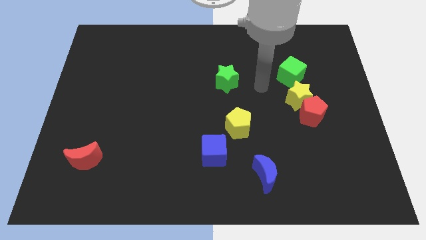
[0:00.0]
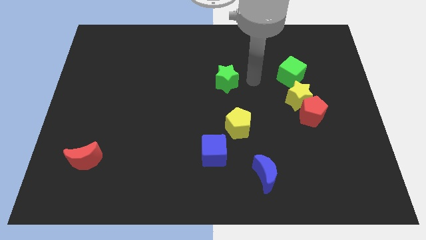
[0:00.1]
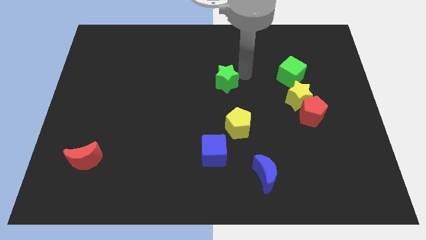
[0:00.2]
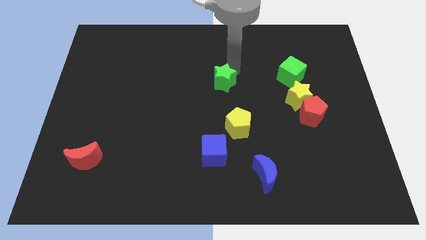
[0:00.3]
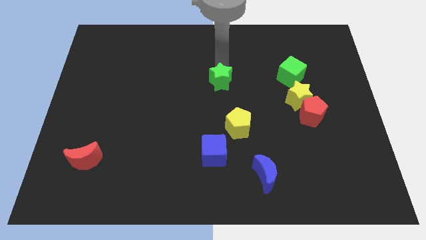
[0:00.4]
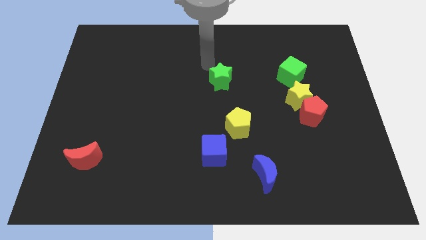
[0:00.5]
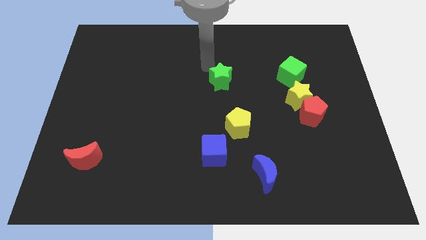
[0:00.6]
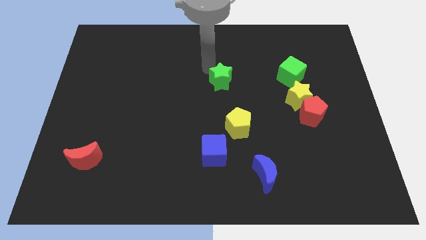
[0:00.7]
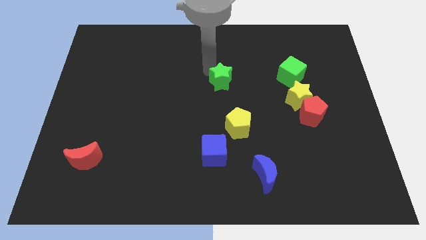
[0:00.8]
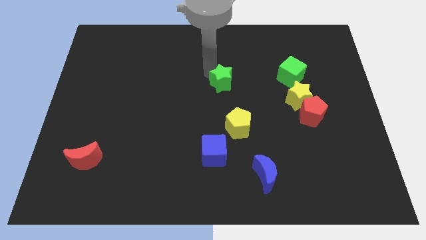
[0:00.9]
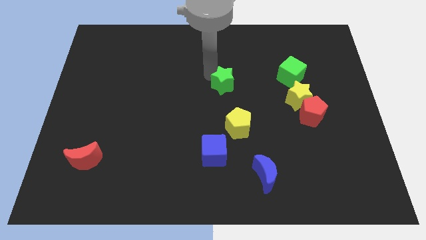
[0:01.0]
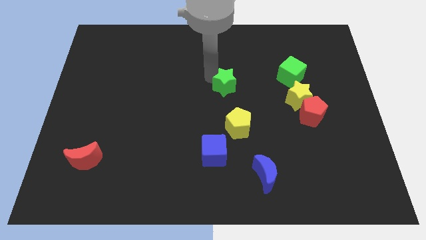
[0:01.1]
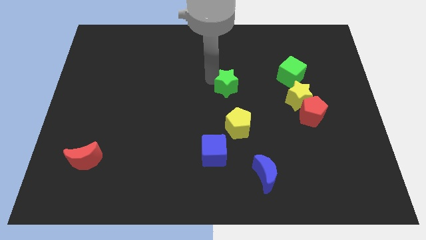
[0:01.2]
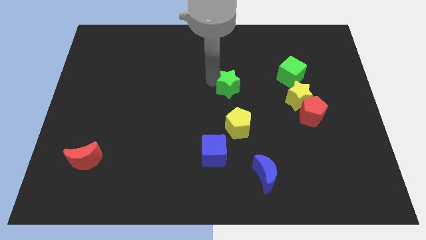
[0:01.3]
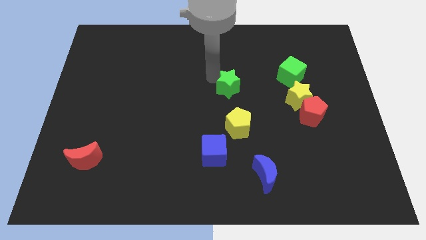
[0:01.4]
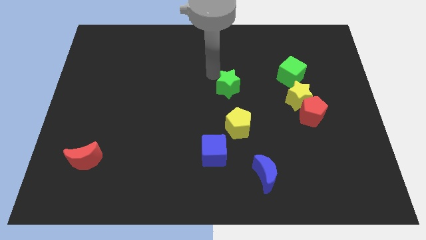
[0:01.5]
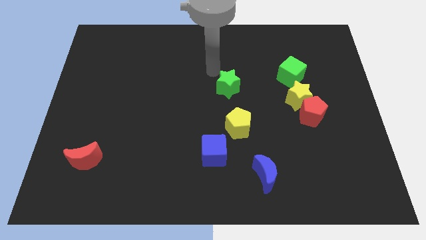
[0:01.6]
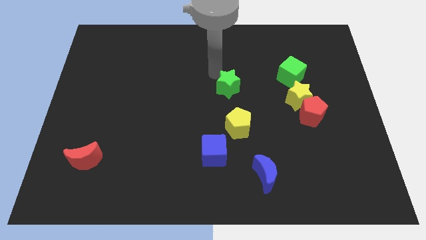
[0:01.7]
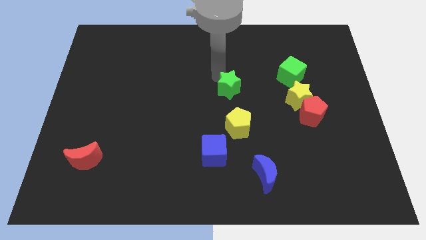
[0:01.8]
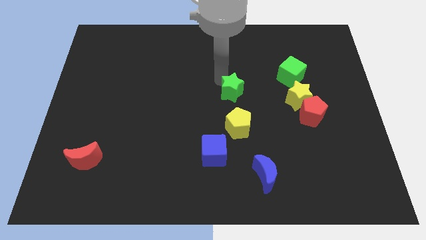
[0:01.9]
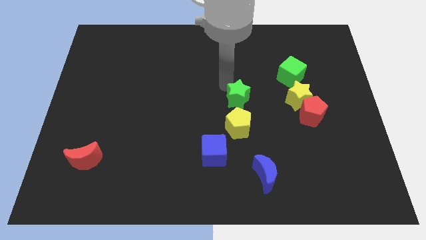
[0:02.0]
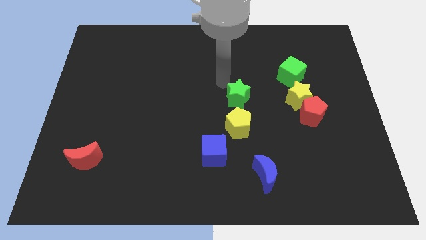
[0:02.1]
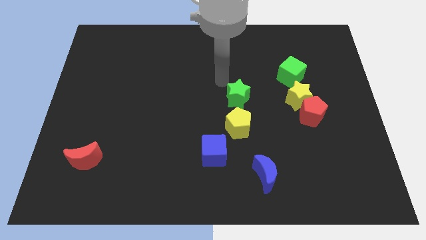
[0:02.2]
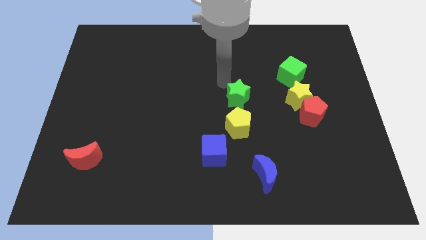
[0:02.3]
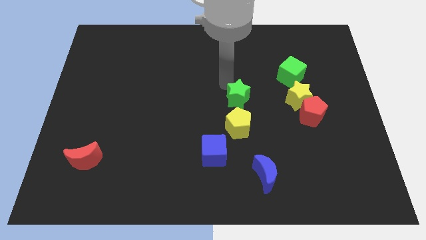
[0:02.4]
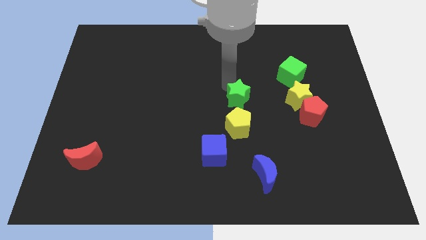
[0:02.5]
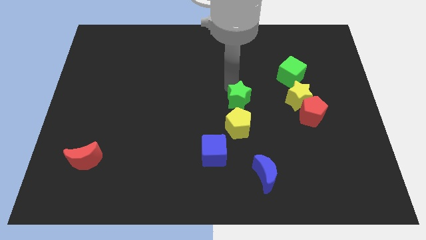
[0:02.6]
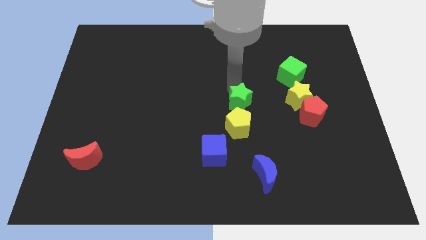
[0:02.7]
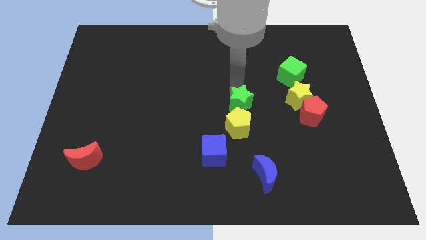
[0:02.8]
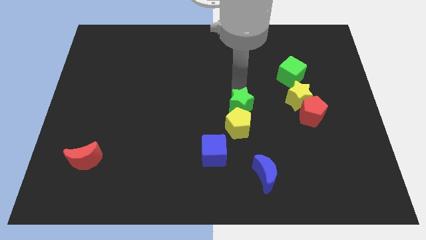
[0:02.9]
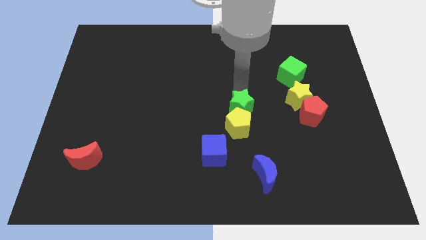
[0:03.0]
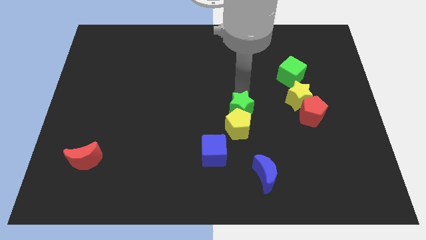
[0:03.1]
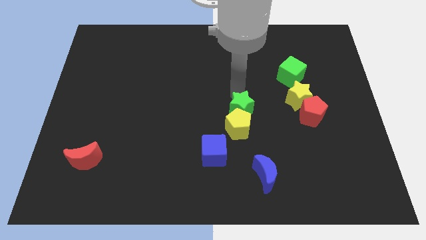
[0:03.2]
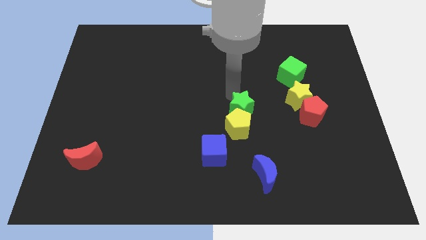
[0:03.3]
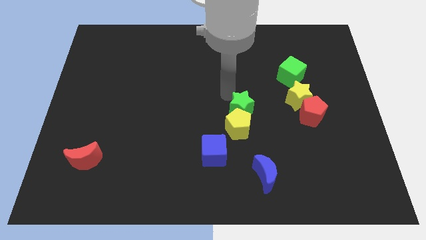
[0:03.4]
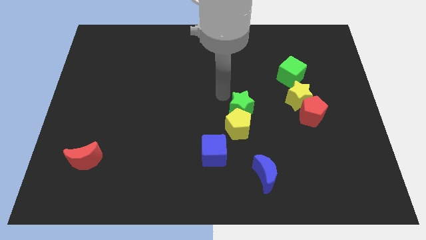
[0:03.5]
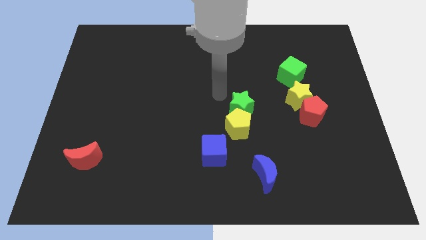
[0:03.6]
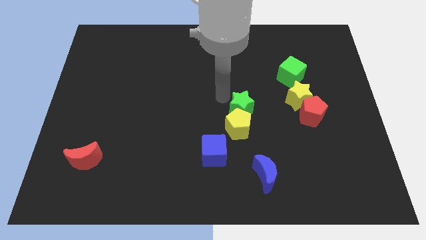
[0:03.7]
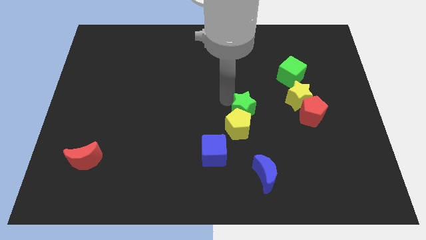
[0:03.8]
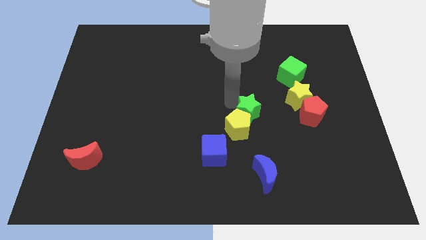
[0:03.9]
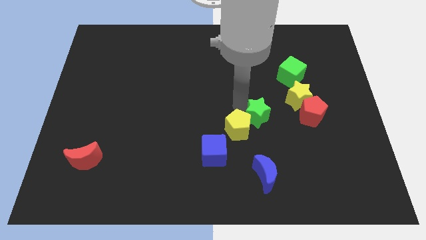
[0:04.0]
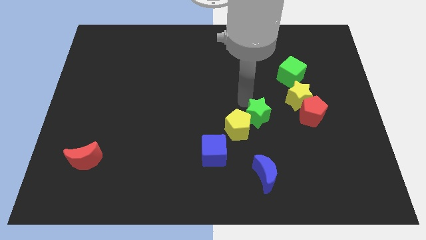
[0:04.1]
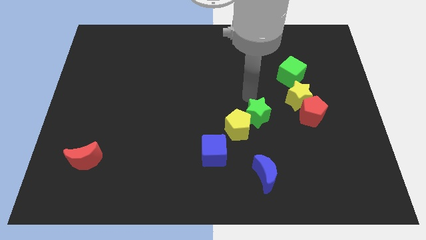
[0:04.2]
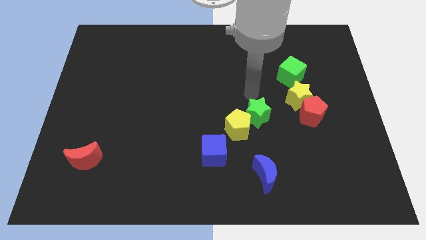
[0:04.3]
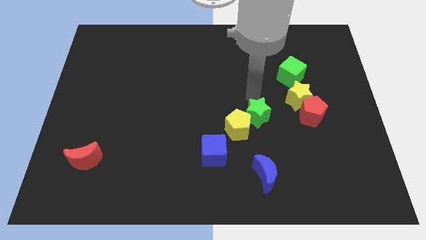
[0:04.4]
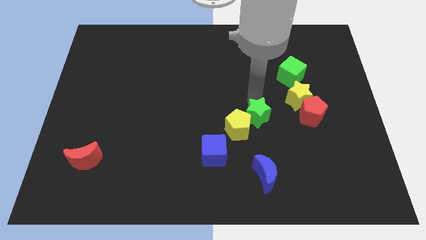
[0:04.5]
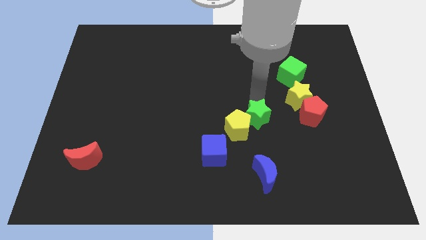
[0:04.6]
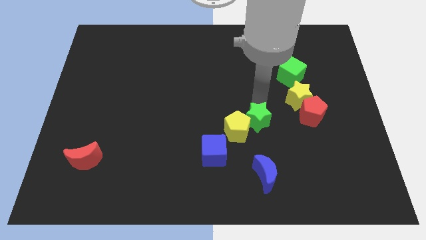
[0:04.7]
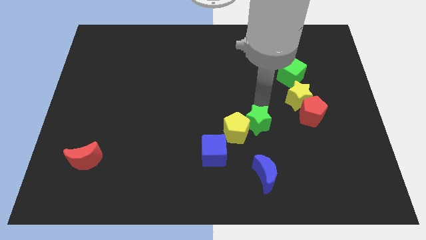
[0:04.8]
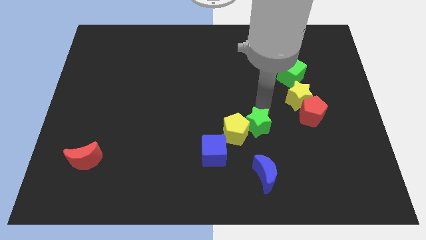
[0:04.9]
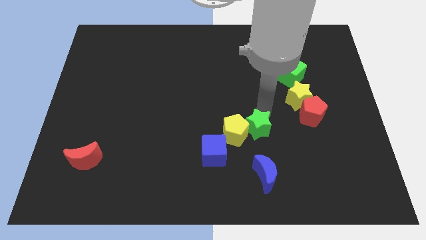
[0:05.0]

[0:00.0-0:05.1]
slide the green star diagonally down and to the right of the yellow pentagon

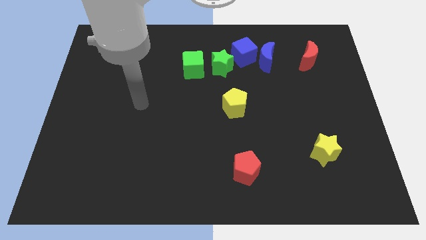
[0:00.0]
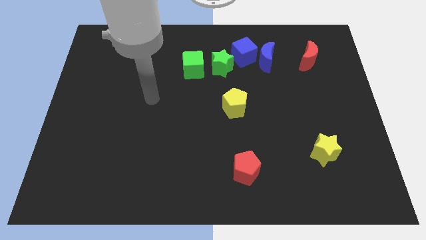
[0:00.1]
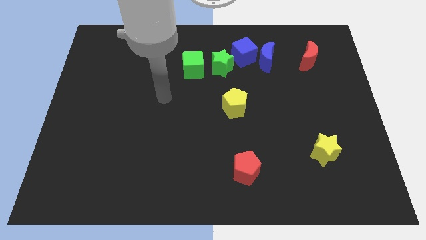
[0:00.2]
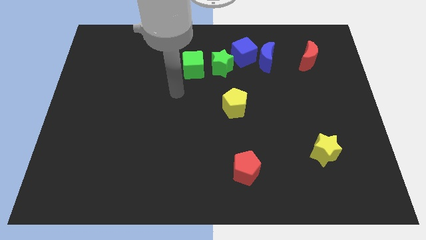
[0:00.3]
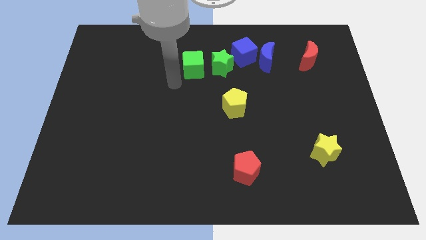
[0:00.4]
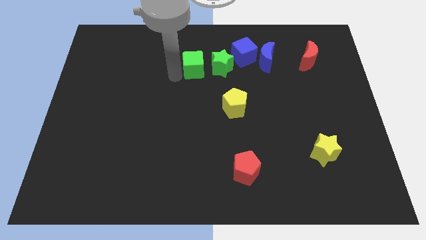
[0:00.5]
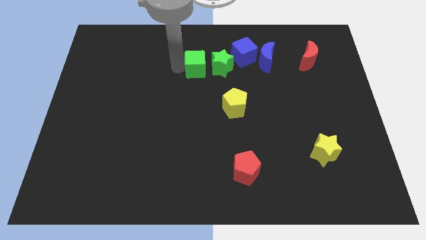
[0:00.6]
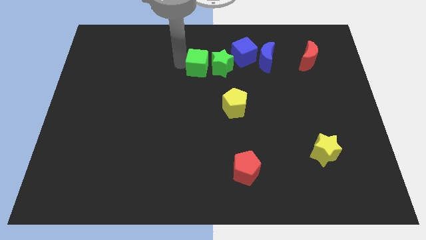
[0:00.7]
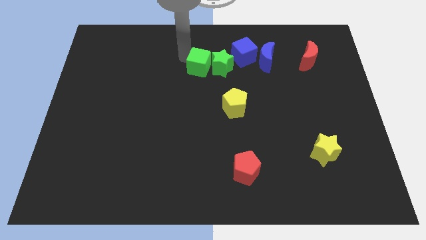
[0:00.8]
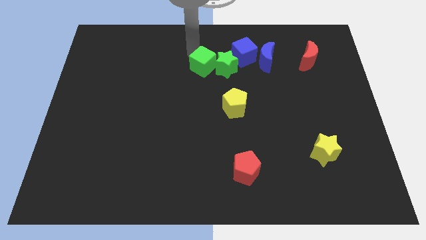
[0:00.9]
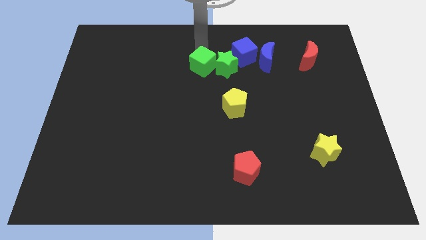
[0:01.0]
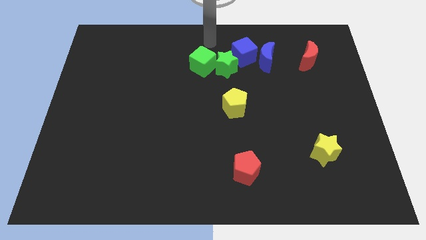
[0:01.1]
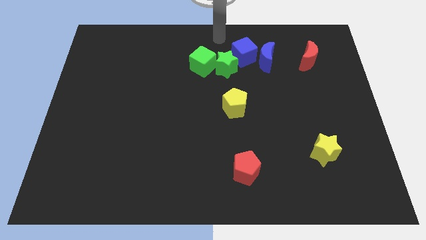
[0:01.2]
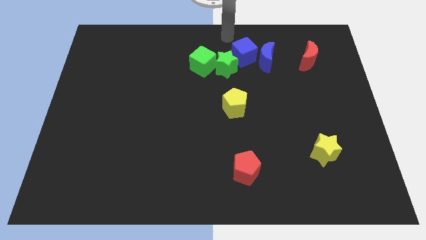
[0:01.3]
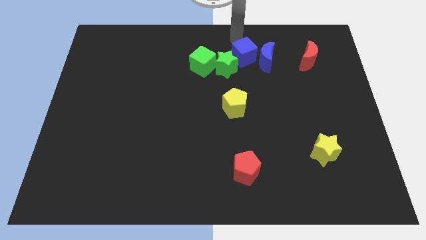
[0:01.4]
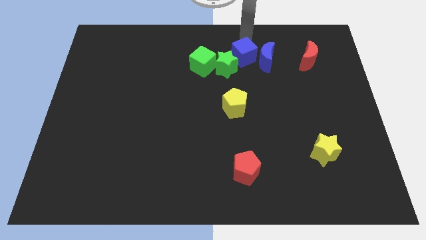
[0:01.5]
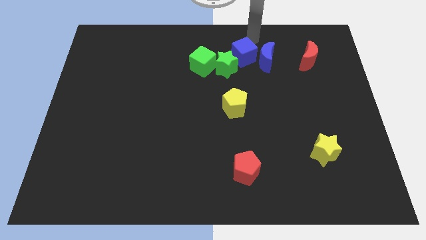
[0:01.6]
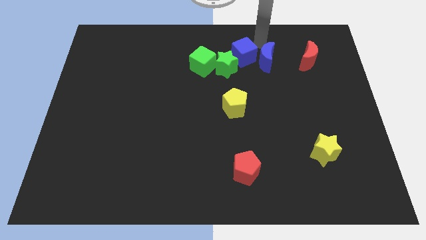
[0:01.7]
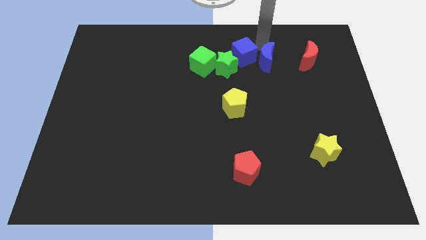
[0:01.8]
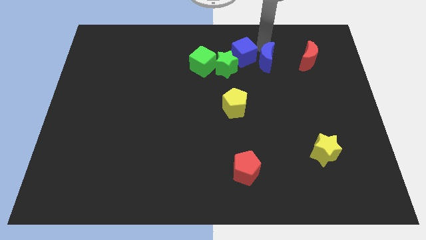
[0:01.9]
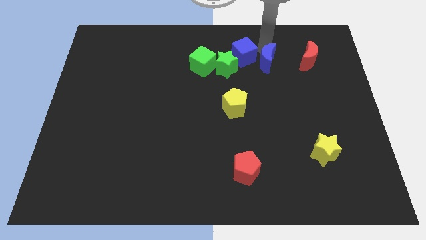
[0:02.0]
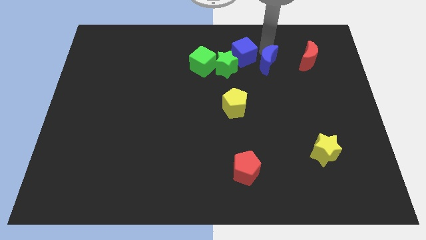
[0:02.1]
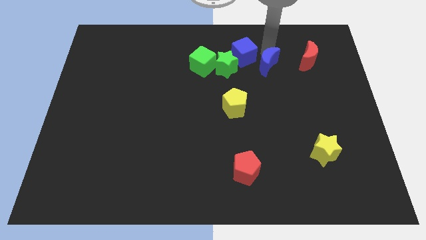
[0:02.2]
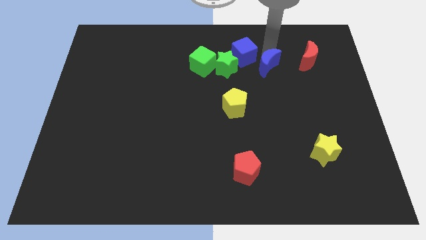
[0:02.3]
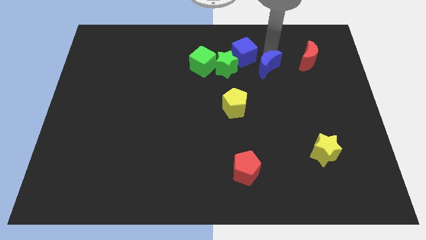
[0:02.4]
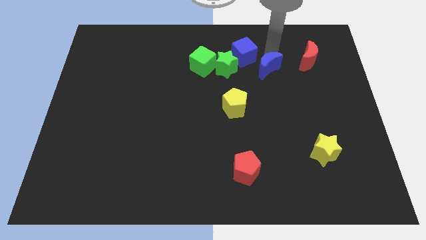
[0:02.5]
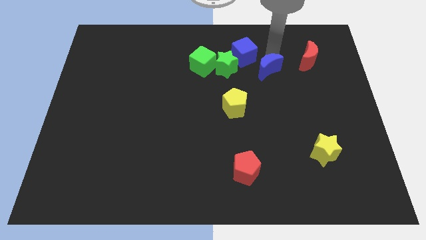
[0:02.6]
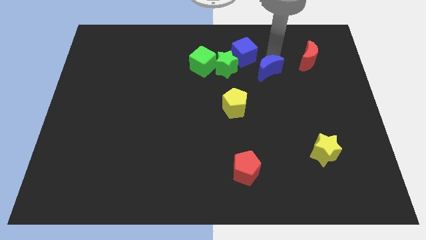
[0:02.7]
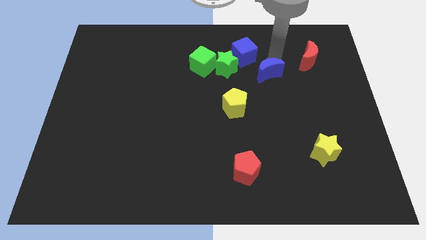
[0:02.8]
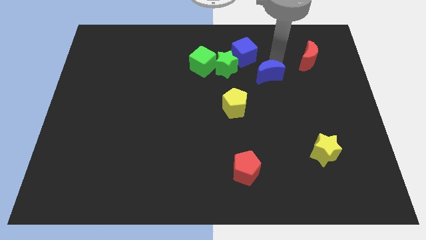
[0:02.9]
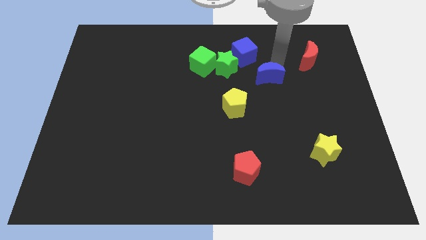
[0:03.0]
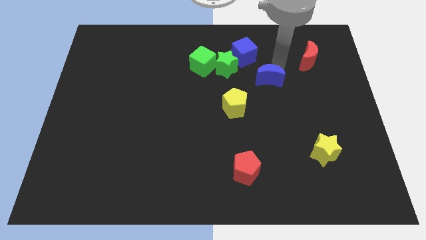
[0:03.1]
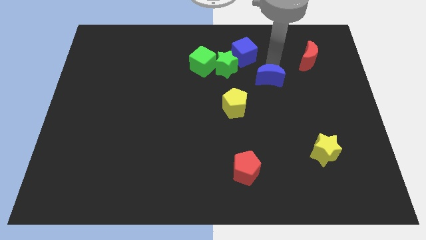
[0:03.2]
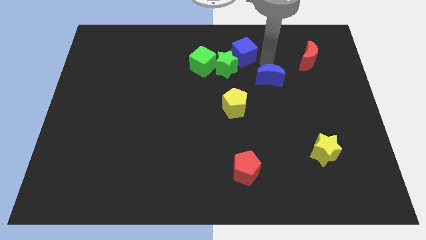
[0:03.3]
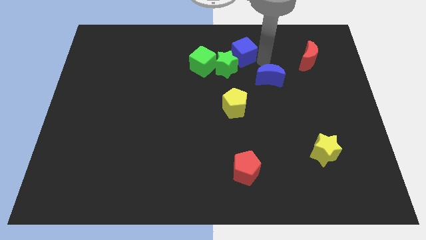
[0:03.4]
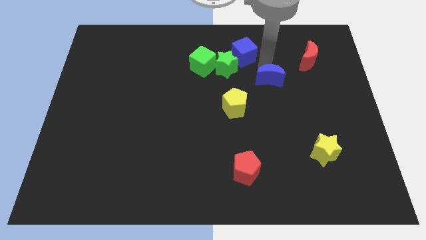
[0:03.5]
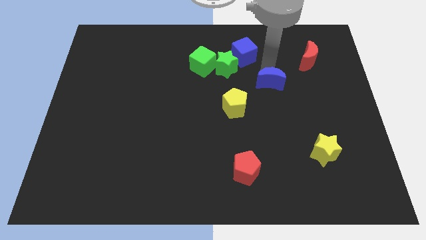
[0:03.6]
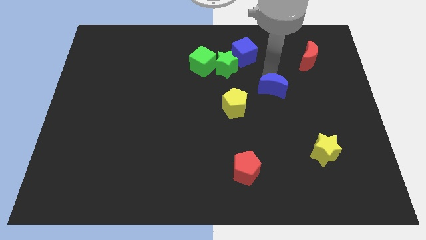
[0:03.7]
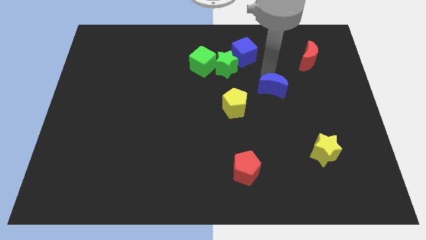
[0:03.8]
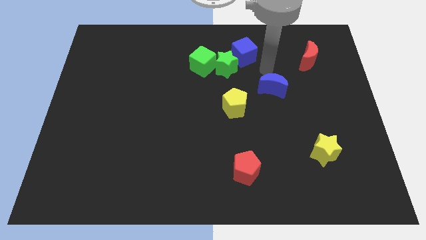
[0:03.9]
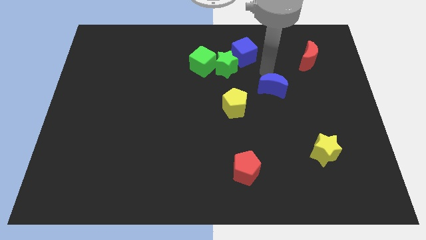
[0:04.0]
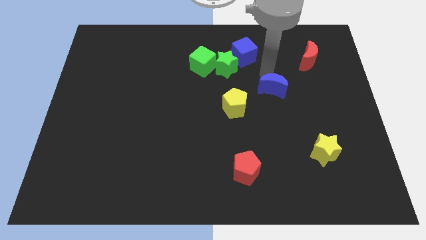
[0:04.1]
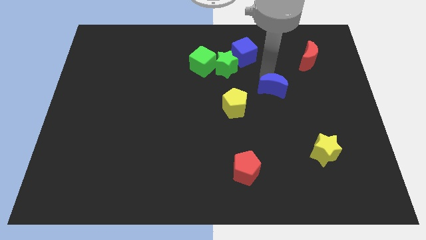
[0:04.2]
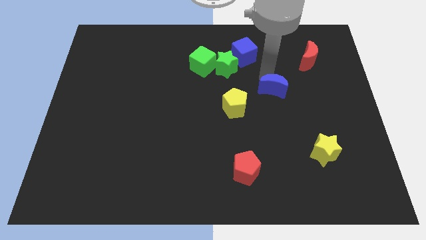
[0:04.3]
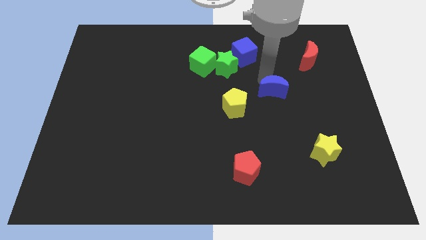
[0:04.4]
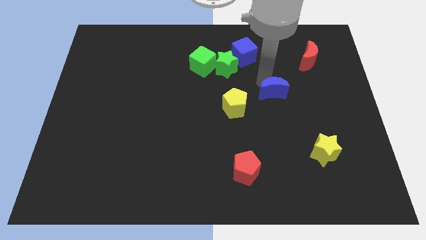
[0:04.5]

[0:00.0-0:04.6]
slide the blue moon right of the yellow pentagon
